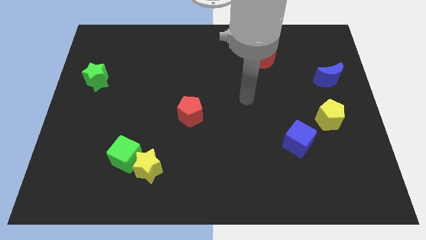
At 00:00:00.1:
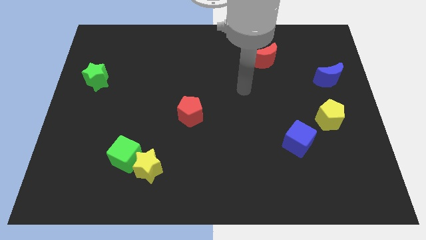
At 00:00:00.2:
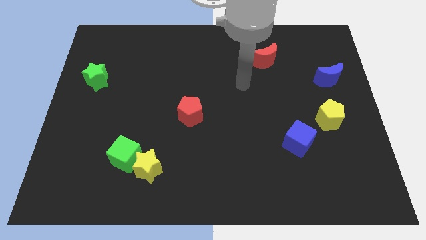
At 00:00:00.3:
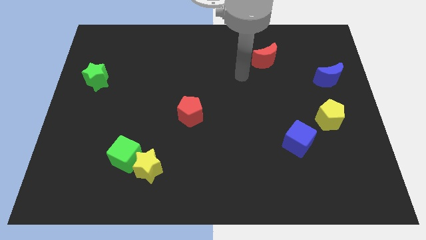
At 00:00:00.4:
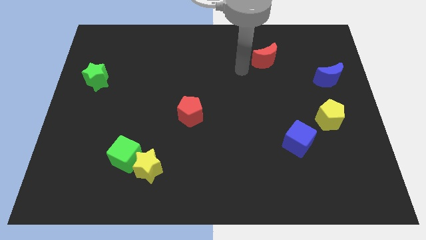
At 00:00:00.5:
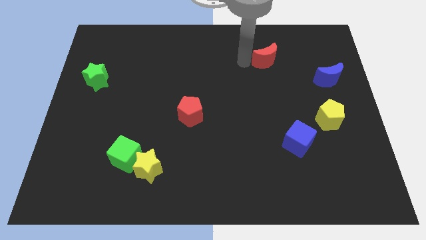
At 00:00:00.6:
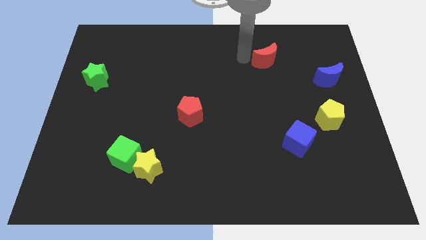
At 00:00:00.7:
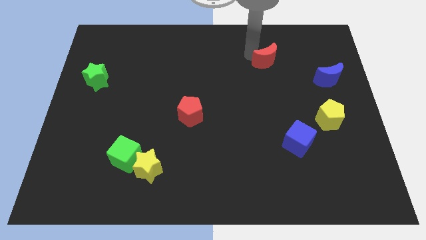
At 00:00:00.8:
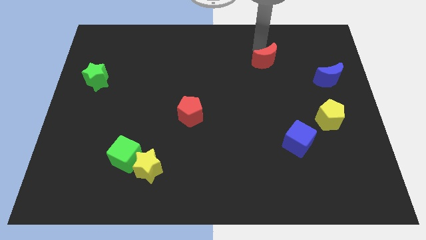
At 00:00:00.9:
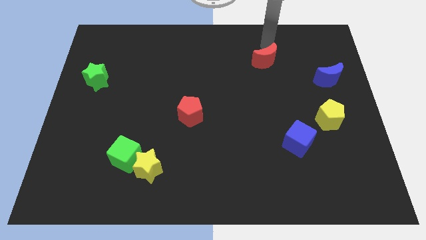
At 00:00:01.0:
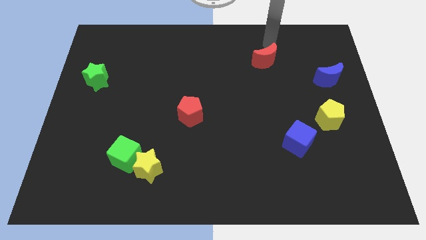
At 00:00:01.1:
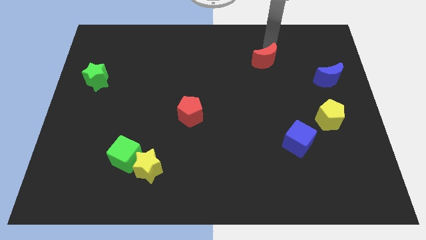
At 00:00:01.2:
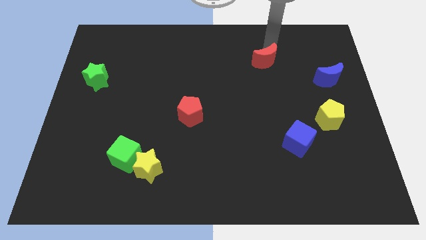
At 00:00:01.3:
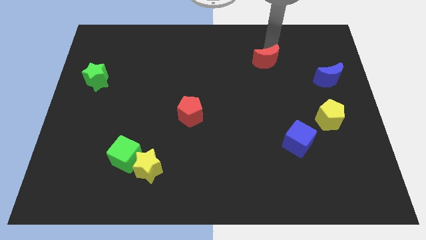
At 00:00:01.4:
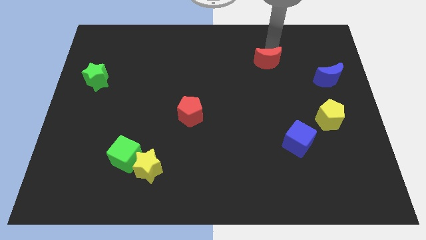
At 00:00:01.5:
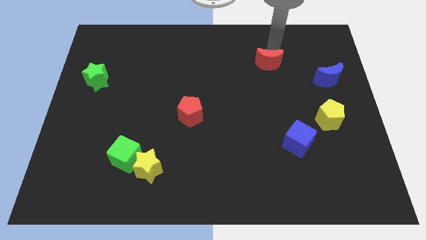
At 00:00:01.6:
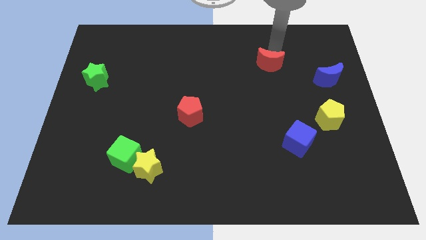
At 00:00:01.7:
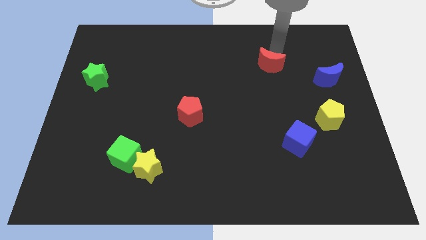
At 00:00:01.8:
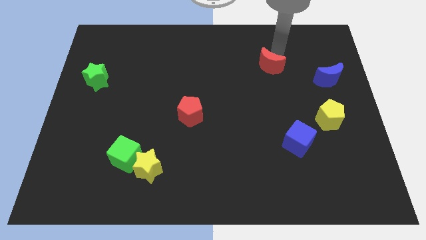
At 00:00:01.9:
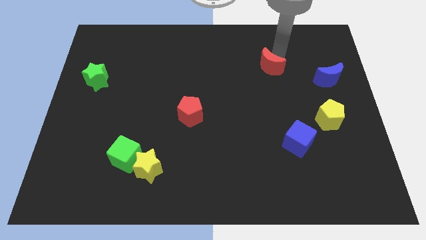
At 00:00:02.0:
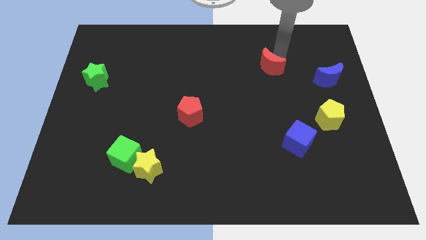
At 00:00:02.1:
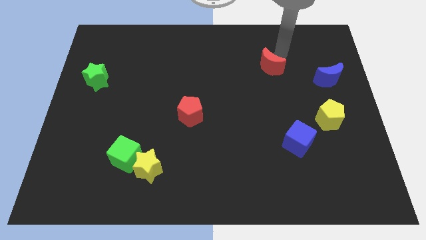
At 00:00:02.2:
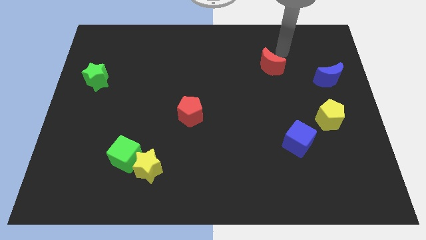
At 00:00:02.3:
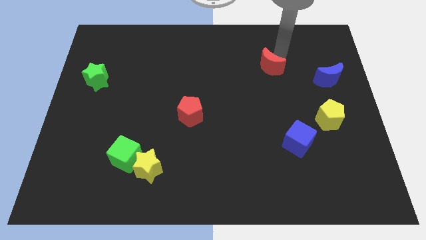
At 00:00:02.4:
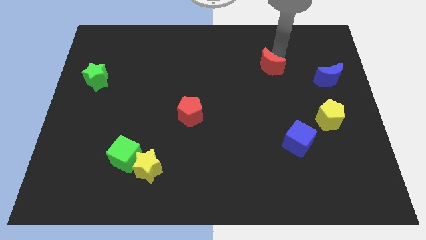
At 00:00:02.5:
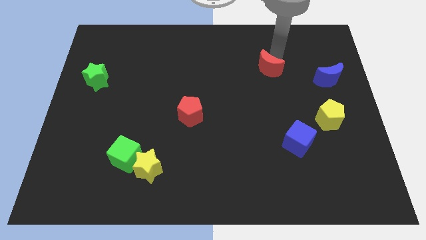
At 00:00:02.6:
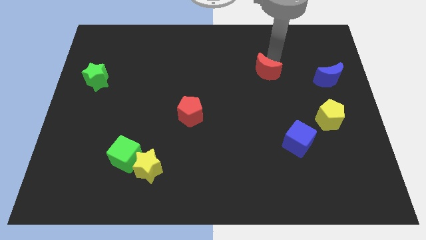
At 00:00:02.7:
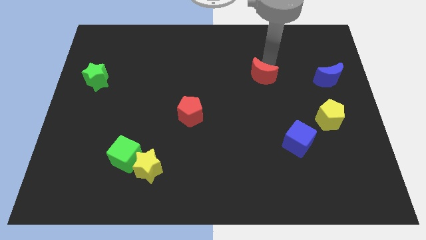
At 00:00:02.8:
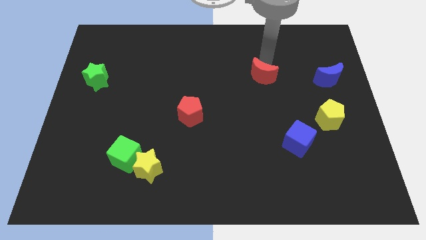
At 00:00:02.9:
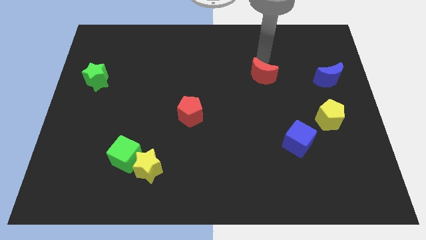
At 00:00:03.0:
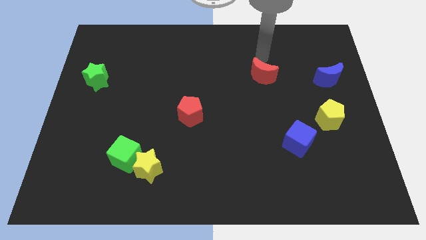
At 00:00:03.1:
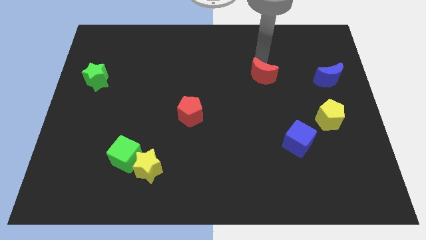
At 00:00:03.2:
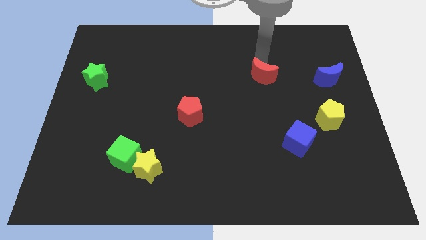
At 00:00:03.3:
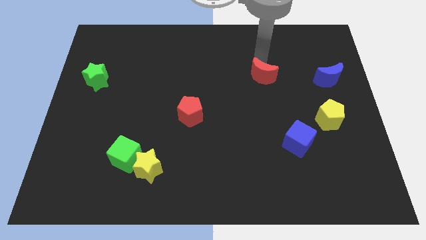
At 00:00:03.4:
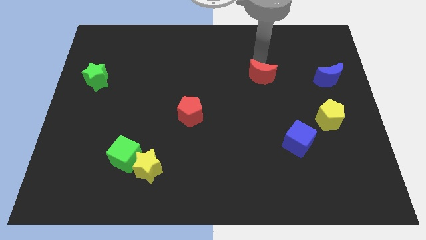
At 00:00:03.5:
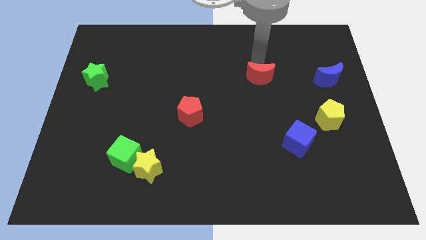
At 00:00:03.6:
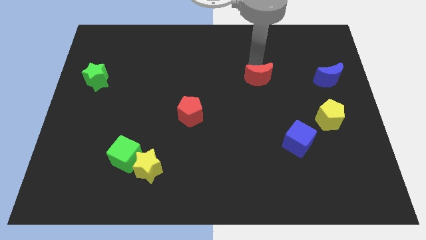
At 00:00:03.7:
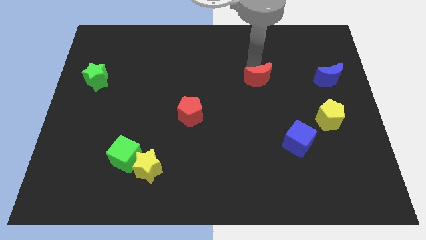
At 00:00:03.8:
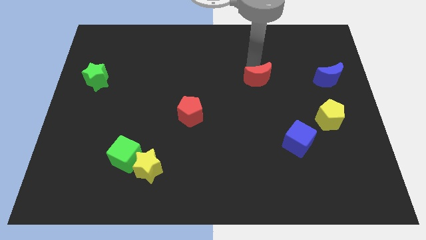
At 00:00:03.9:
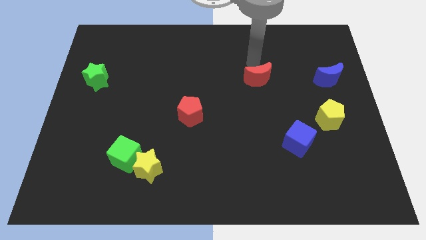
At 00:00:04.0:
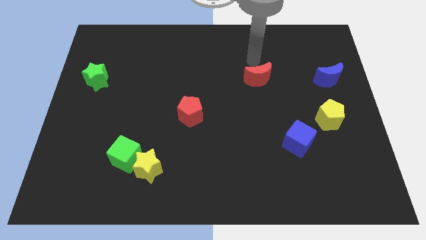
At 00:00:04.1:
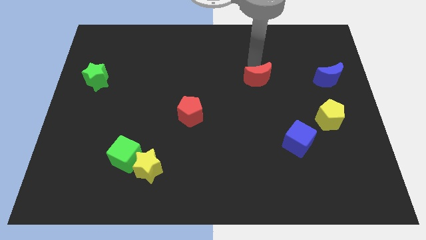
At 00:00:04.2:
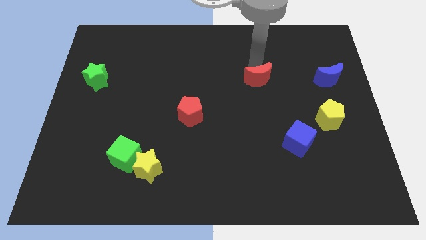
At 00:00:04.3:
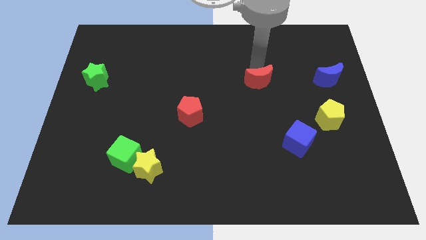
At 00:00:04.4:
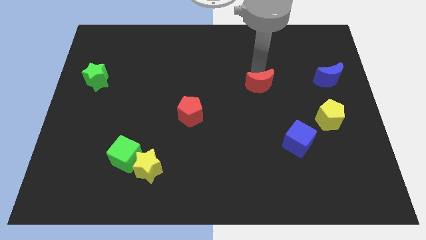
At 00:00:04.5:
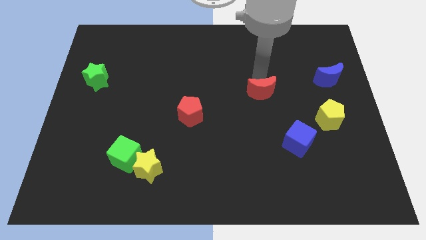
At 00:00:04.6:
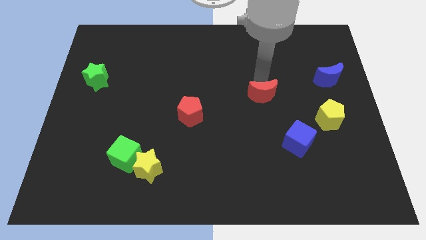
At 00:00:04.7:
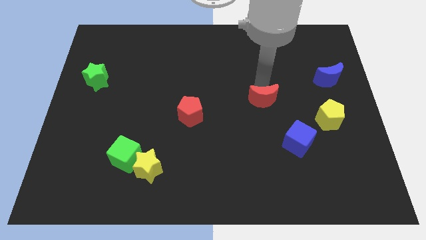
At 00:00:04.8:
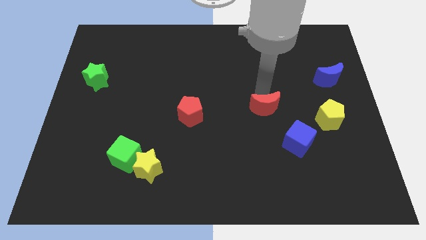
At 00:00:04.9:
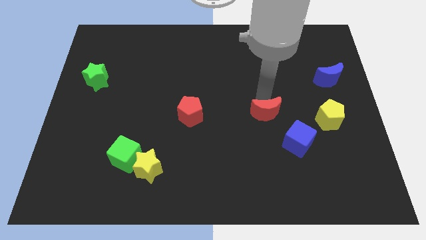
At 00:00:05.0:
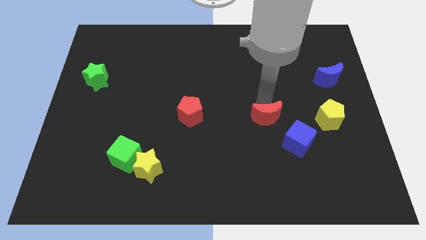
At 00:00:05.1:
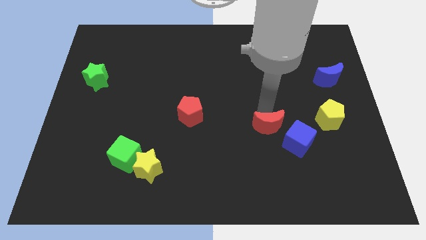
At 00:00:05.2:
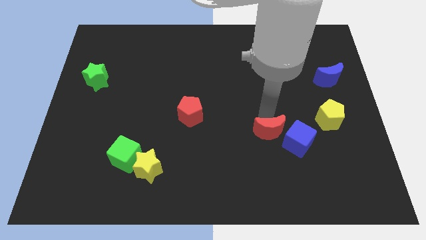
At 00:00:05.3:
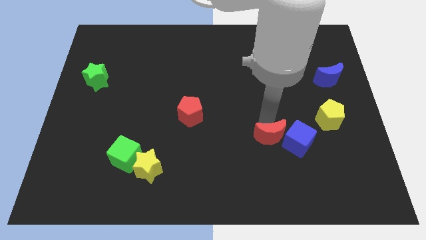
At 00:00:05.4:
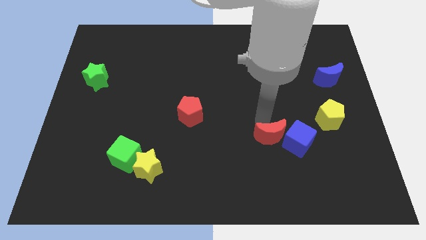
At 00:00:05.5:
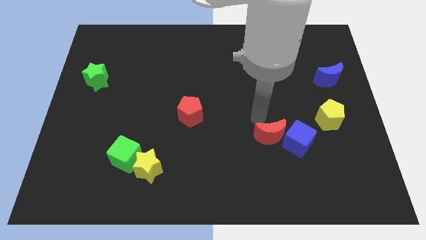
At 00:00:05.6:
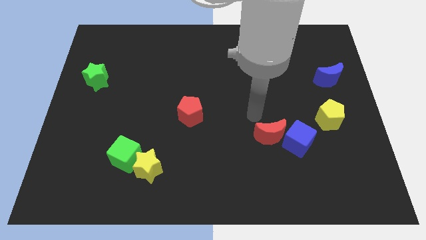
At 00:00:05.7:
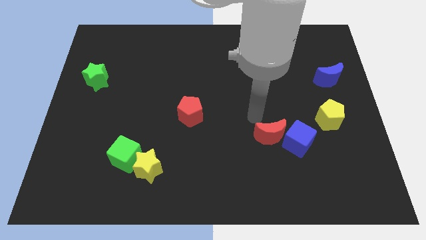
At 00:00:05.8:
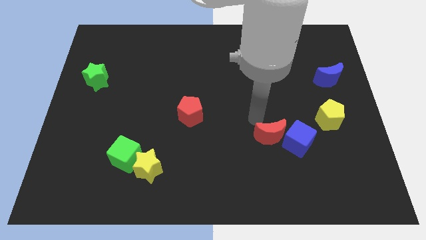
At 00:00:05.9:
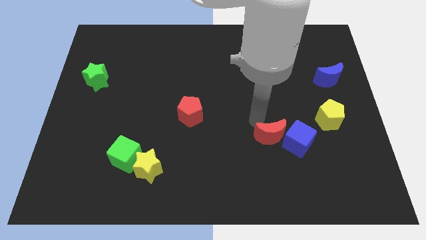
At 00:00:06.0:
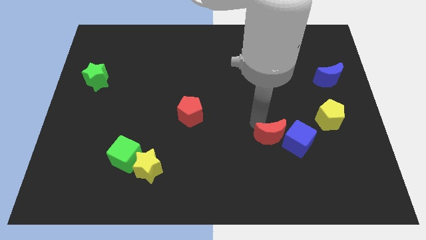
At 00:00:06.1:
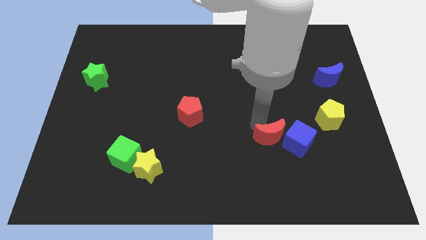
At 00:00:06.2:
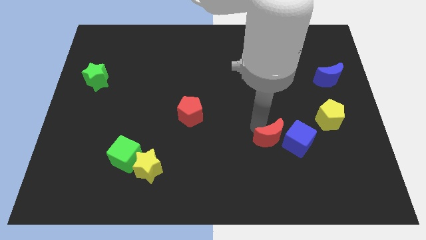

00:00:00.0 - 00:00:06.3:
put the red moon to the bottom left of the blue cube

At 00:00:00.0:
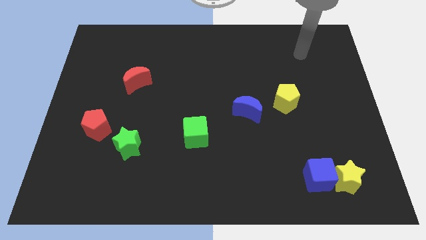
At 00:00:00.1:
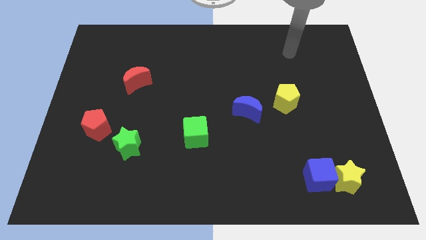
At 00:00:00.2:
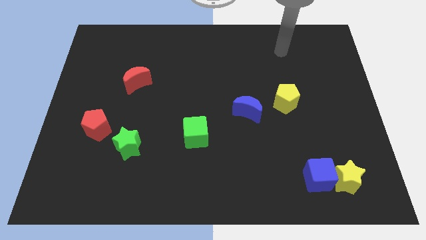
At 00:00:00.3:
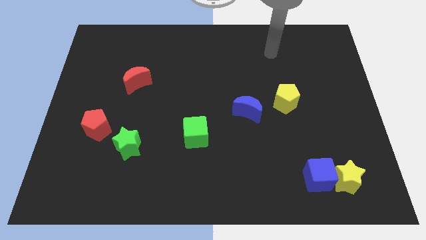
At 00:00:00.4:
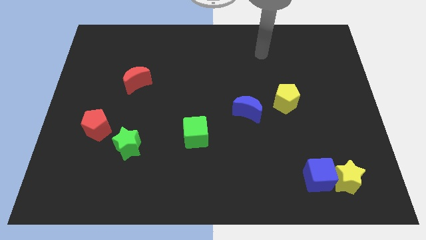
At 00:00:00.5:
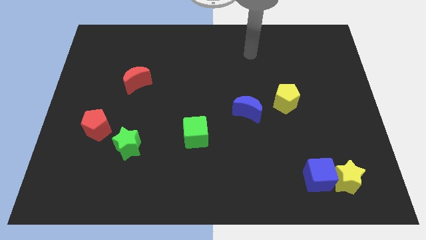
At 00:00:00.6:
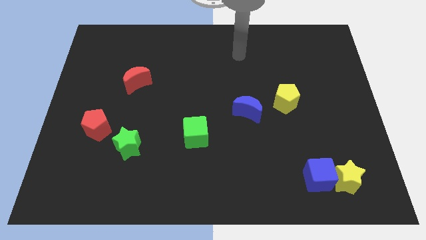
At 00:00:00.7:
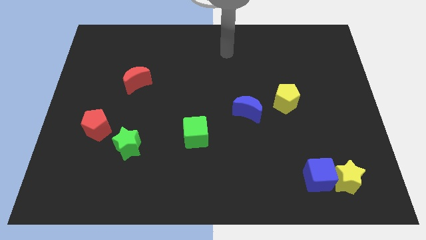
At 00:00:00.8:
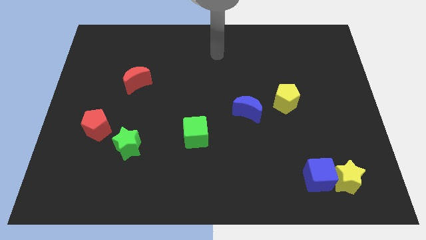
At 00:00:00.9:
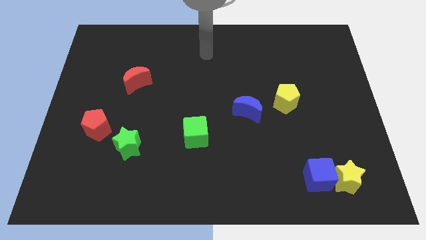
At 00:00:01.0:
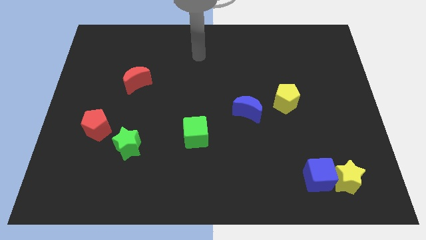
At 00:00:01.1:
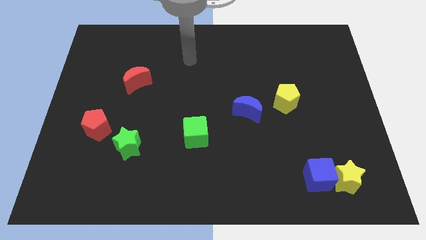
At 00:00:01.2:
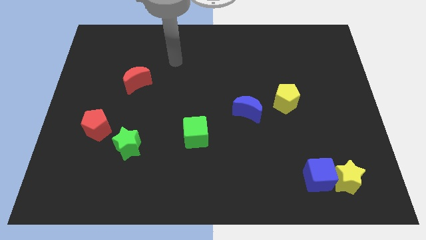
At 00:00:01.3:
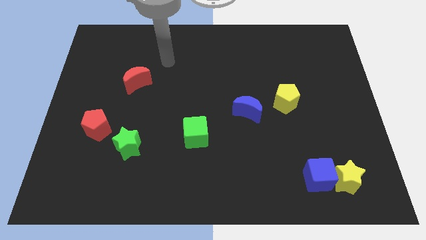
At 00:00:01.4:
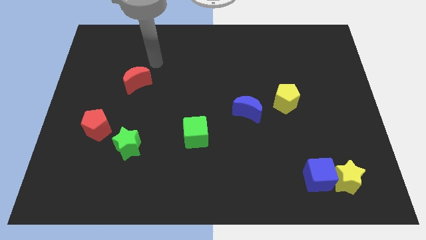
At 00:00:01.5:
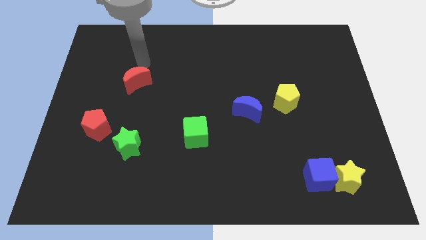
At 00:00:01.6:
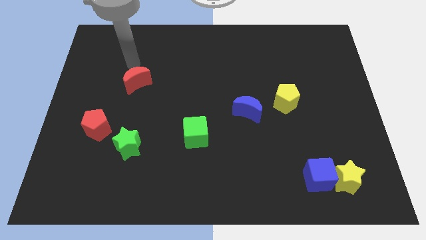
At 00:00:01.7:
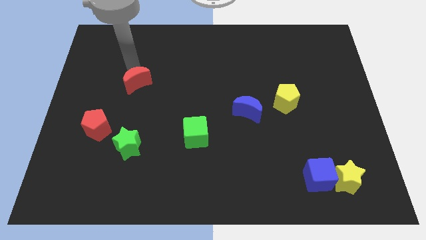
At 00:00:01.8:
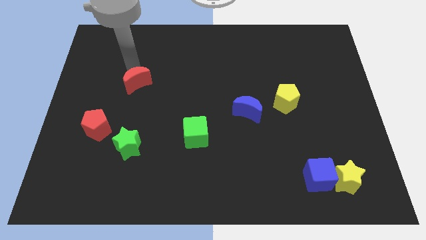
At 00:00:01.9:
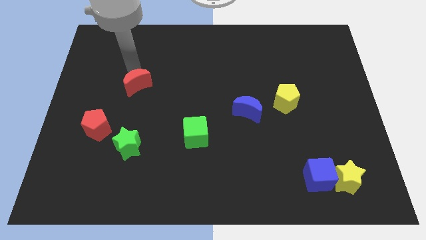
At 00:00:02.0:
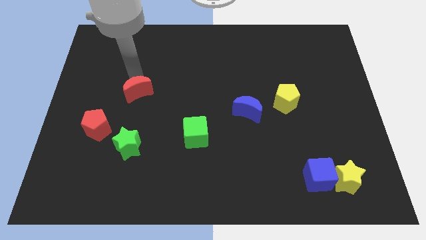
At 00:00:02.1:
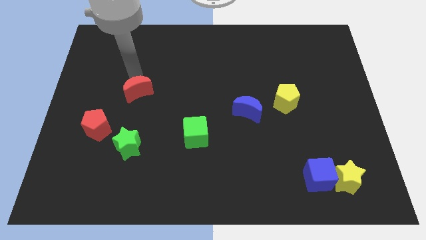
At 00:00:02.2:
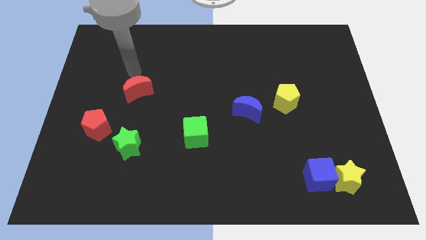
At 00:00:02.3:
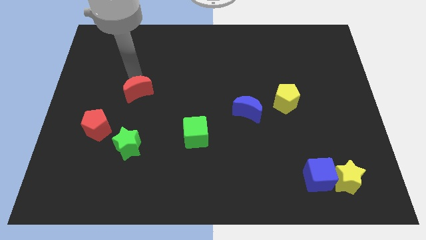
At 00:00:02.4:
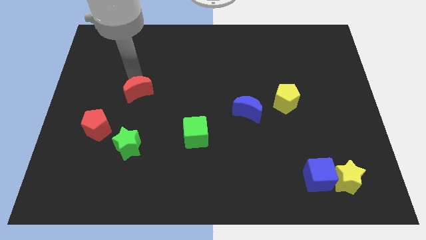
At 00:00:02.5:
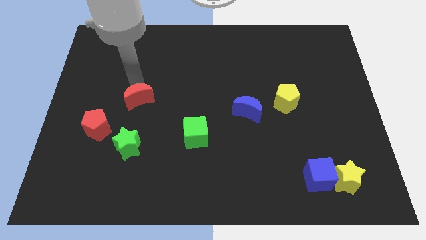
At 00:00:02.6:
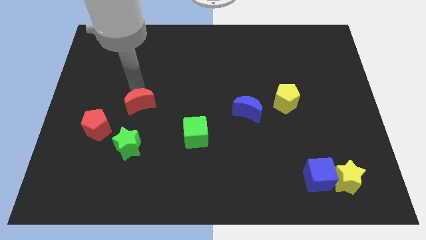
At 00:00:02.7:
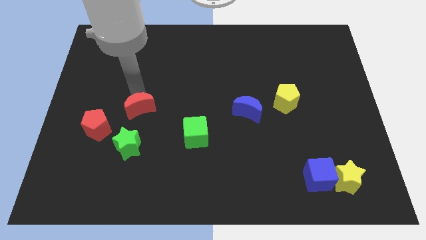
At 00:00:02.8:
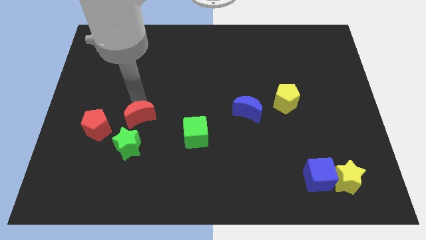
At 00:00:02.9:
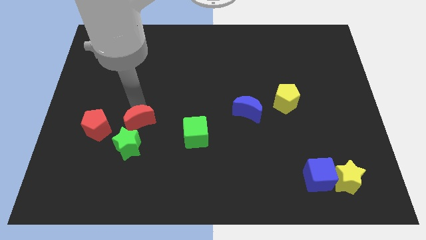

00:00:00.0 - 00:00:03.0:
put the red moon to the left of the green cube
